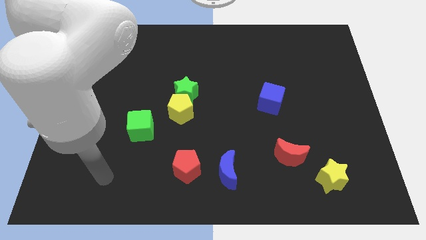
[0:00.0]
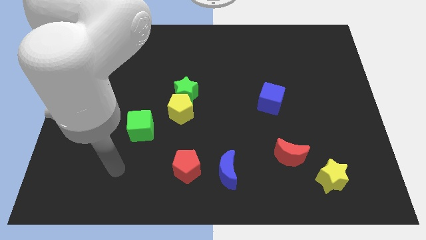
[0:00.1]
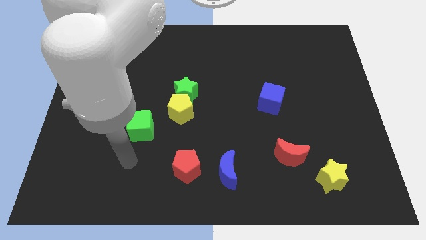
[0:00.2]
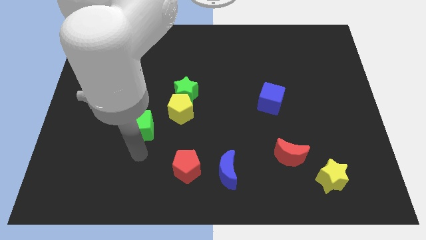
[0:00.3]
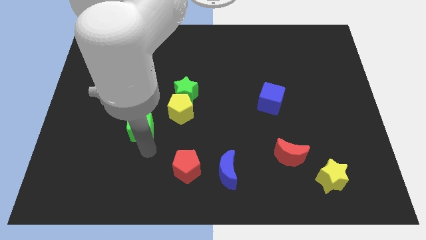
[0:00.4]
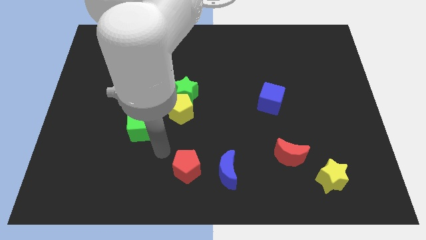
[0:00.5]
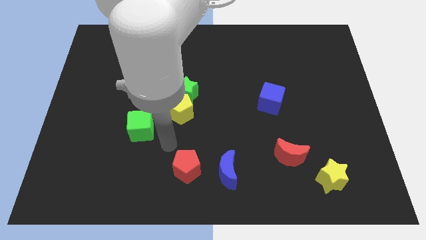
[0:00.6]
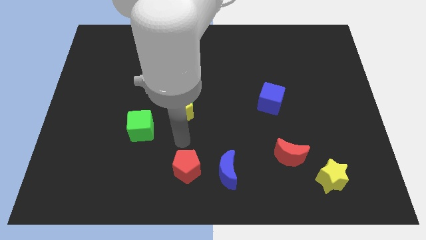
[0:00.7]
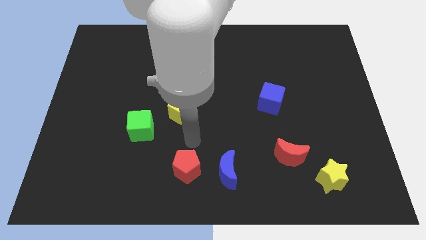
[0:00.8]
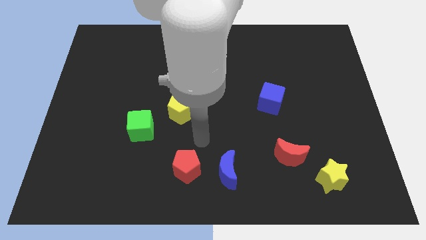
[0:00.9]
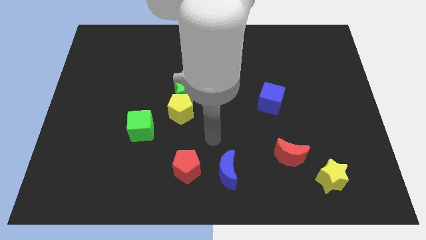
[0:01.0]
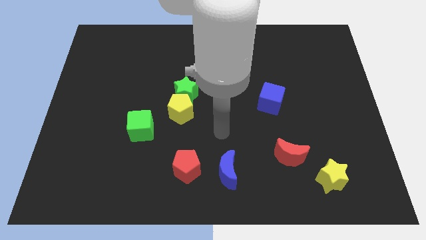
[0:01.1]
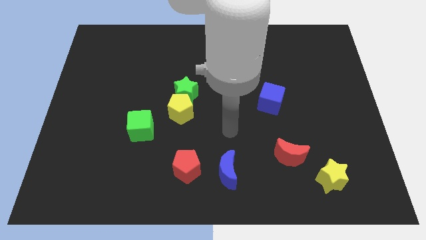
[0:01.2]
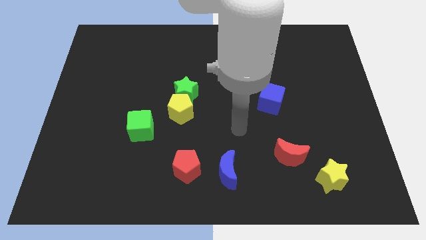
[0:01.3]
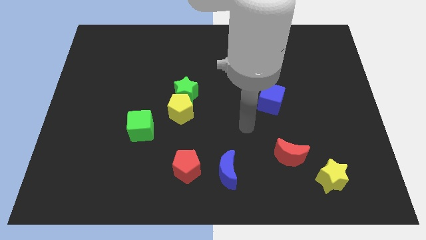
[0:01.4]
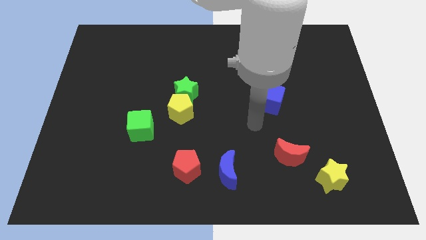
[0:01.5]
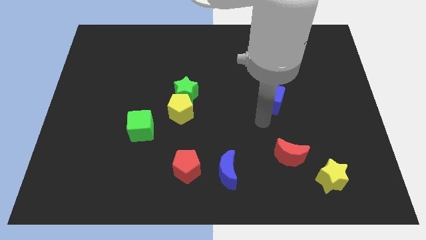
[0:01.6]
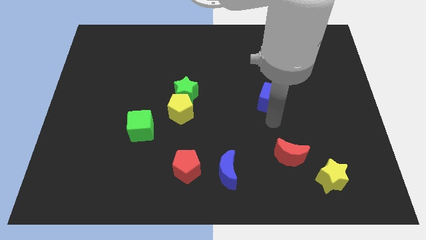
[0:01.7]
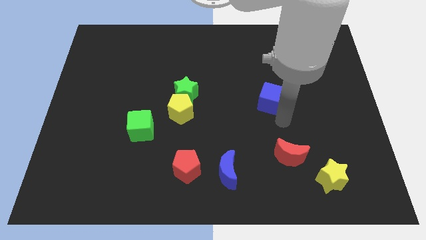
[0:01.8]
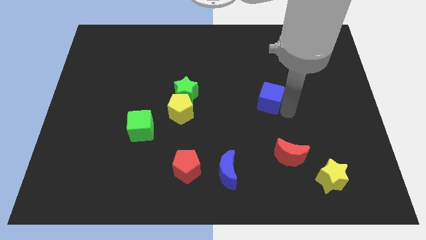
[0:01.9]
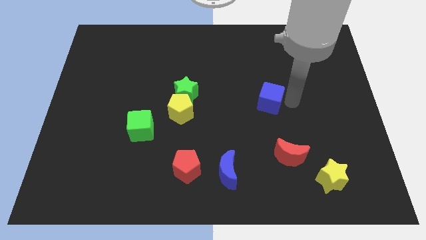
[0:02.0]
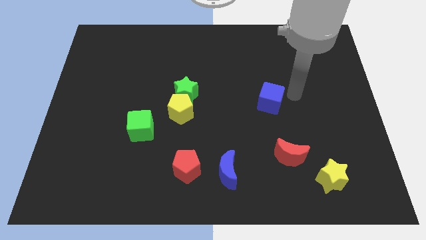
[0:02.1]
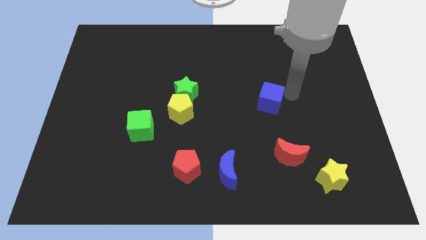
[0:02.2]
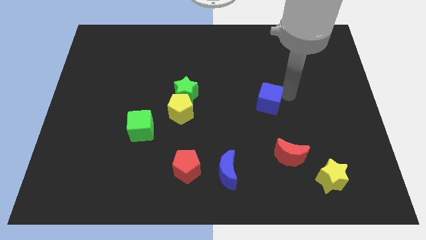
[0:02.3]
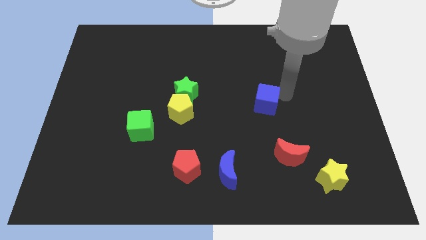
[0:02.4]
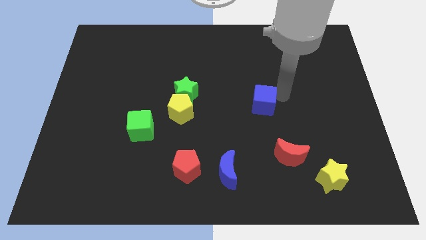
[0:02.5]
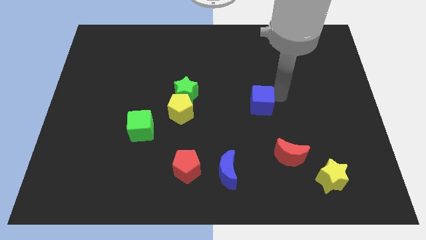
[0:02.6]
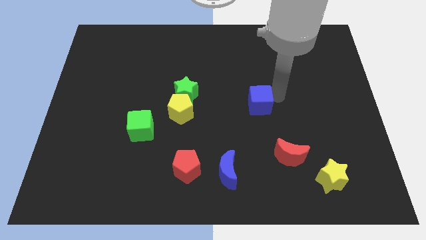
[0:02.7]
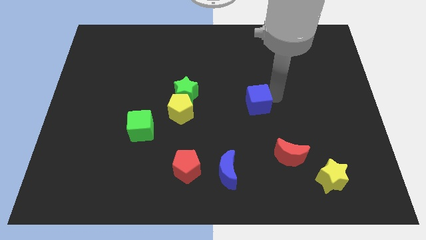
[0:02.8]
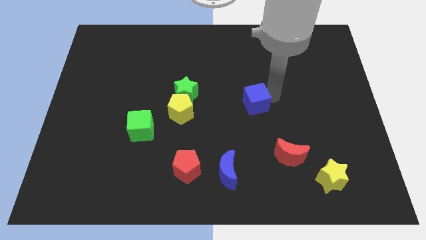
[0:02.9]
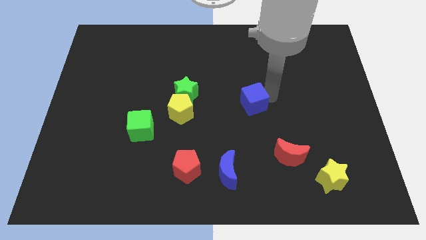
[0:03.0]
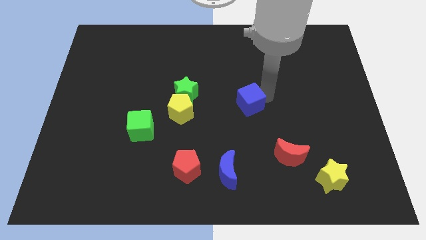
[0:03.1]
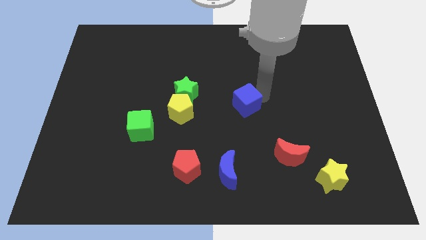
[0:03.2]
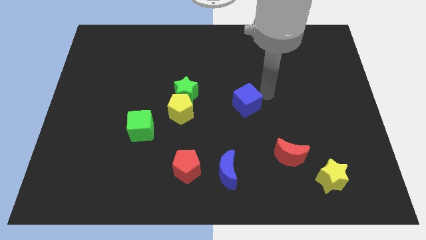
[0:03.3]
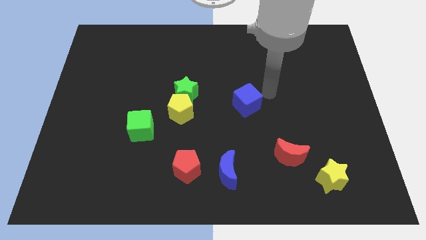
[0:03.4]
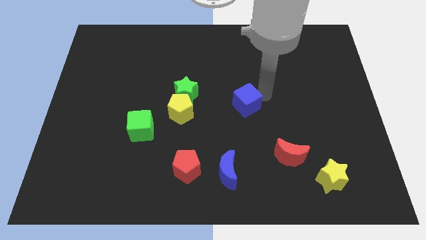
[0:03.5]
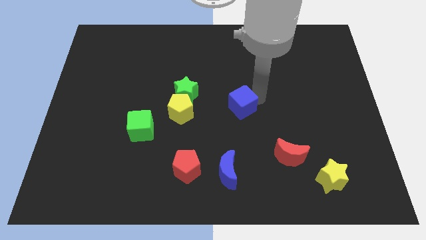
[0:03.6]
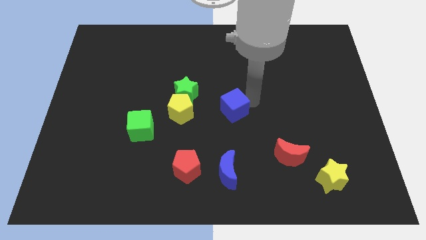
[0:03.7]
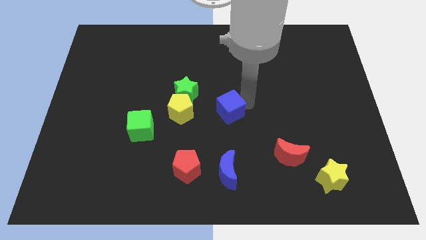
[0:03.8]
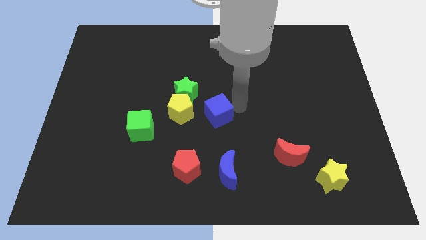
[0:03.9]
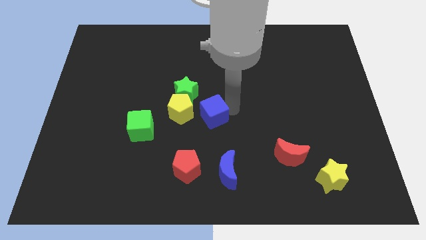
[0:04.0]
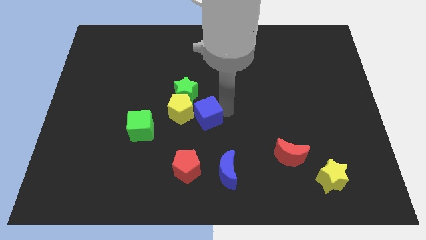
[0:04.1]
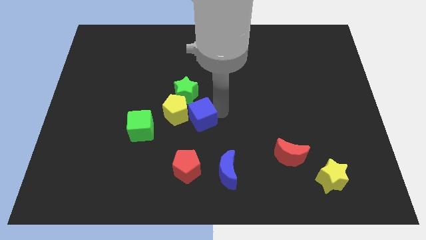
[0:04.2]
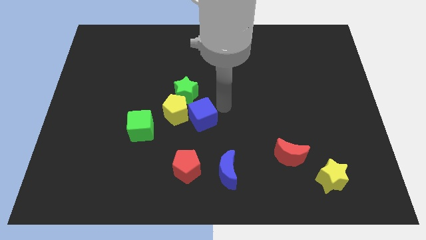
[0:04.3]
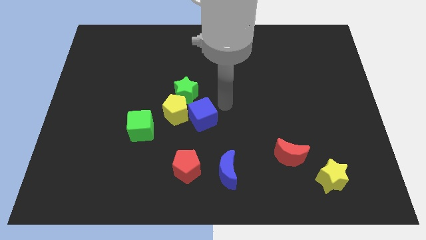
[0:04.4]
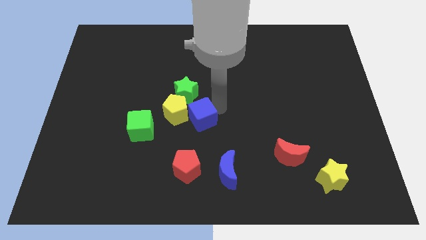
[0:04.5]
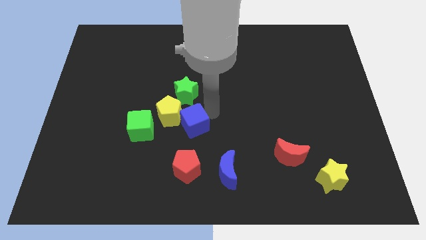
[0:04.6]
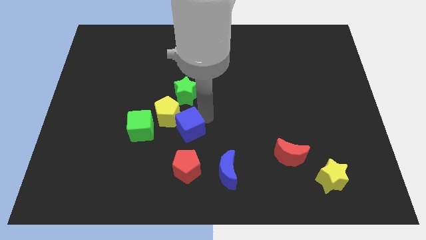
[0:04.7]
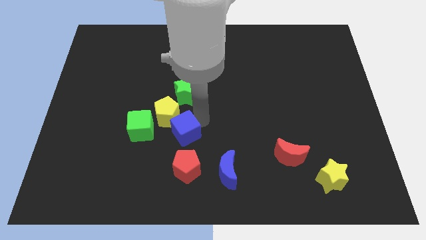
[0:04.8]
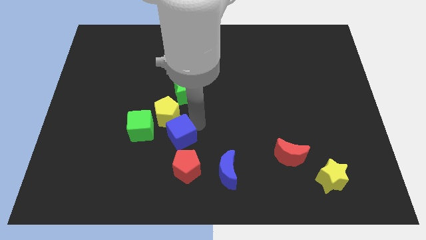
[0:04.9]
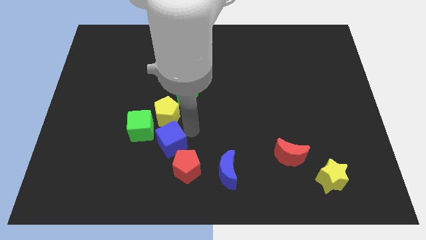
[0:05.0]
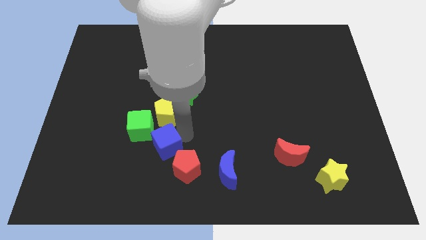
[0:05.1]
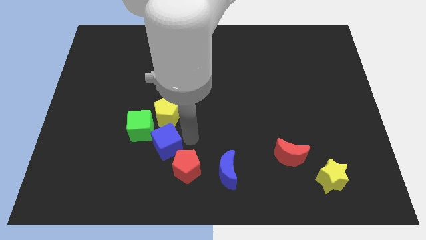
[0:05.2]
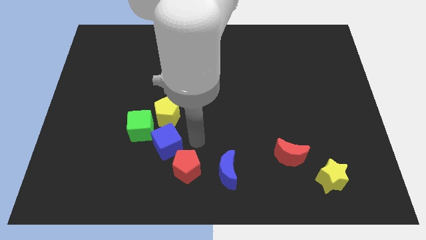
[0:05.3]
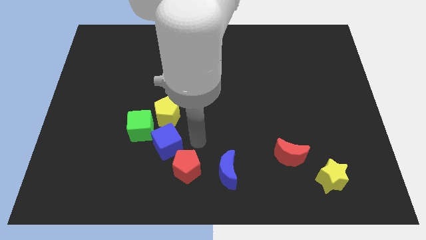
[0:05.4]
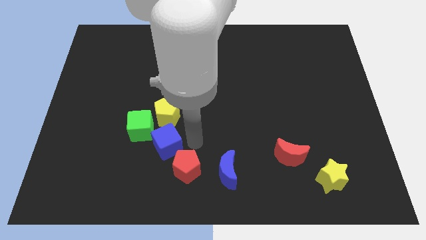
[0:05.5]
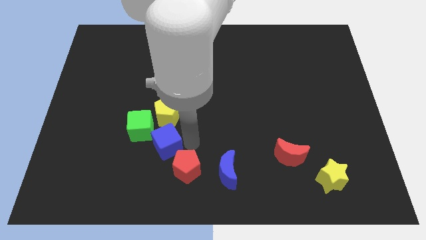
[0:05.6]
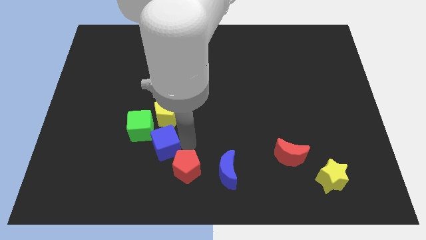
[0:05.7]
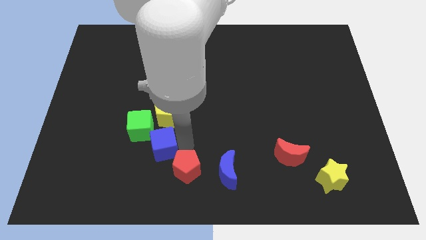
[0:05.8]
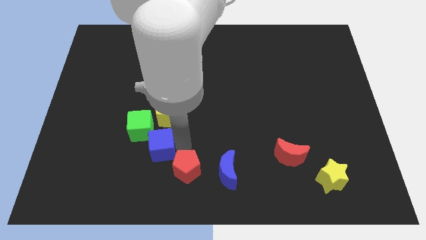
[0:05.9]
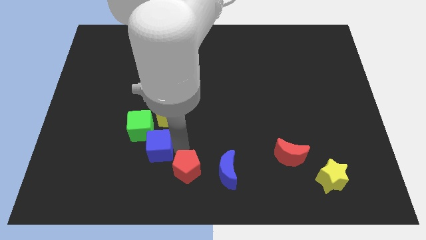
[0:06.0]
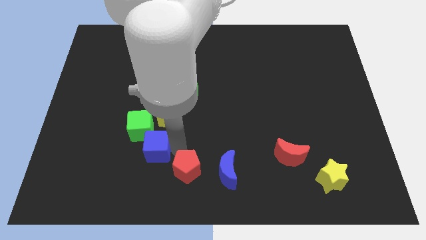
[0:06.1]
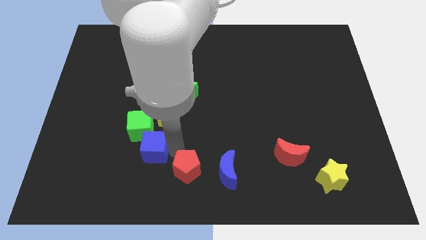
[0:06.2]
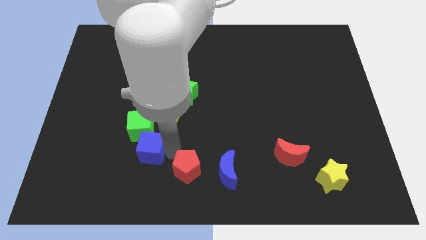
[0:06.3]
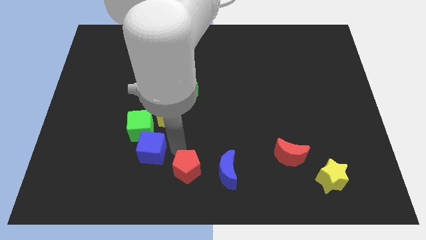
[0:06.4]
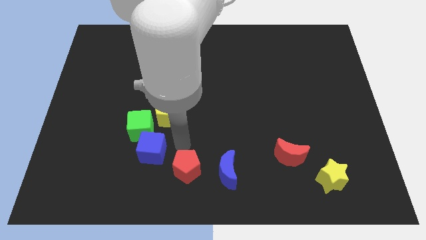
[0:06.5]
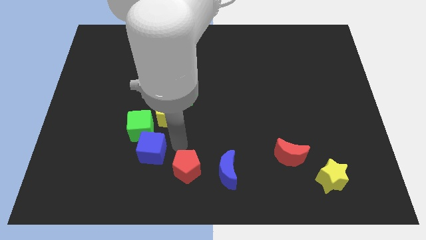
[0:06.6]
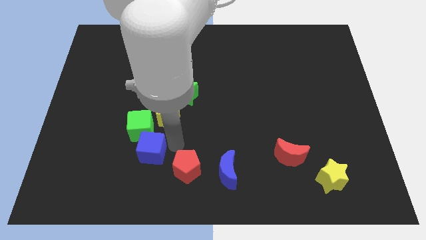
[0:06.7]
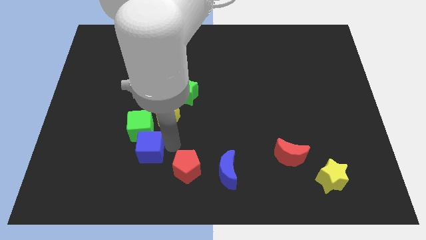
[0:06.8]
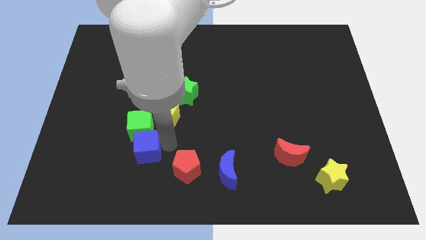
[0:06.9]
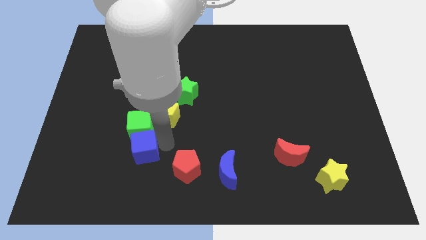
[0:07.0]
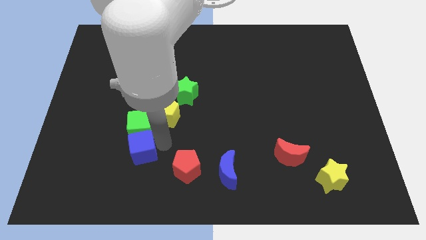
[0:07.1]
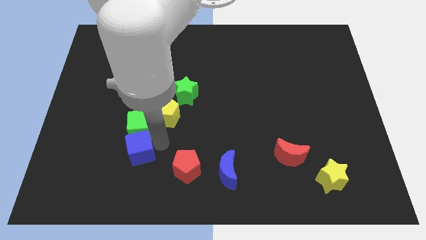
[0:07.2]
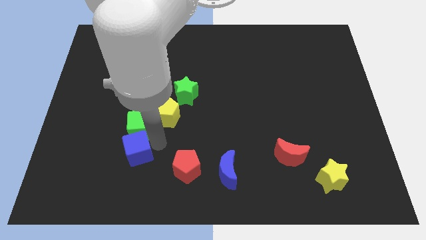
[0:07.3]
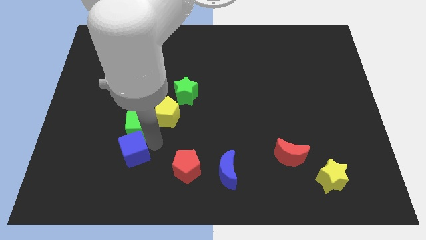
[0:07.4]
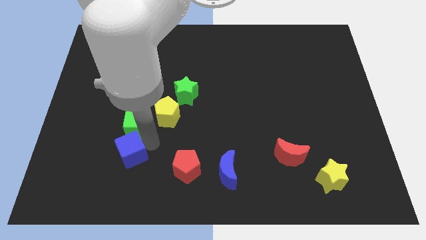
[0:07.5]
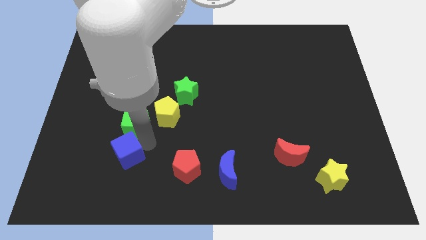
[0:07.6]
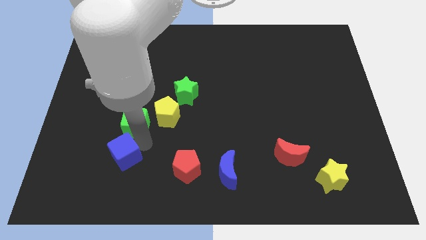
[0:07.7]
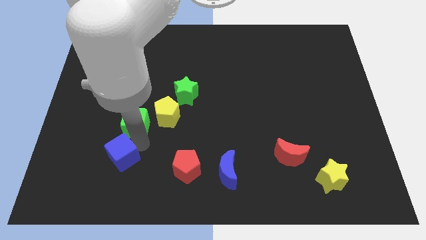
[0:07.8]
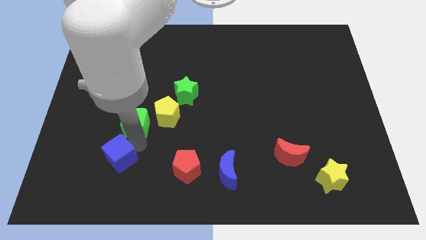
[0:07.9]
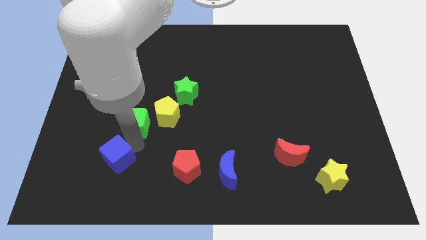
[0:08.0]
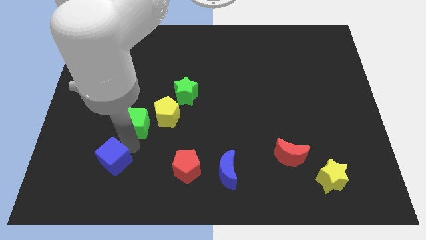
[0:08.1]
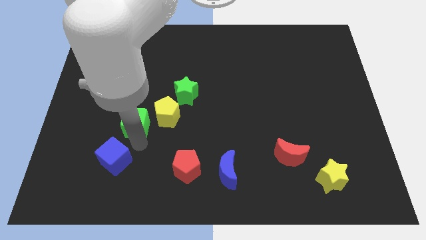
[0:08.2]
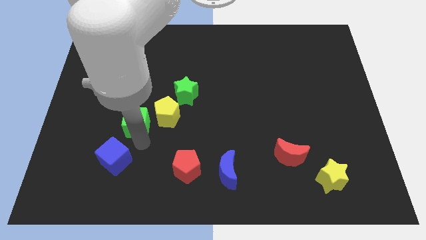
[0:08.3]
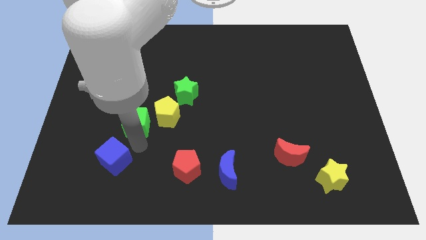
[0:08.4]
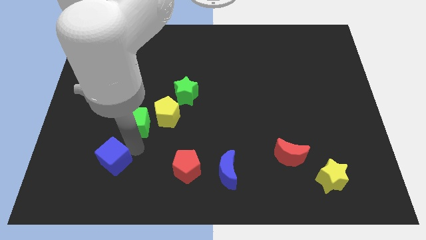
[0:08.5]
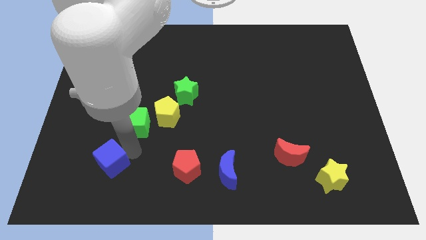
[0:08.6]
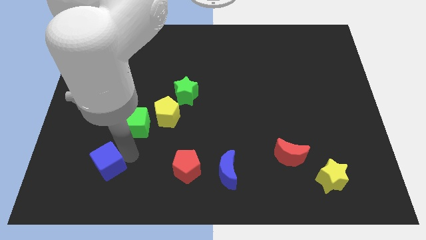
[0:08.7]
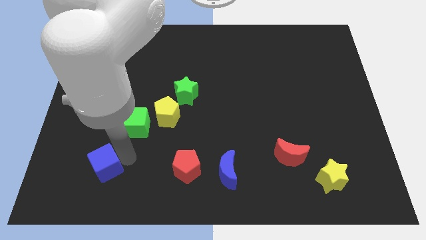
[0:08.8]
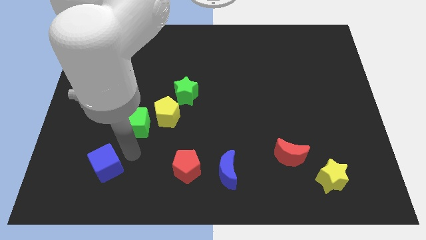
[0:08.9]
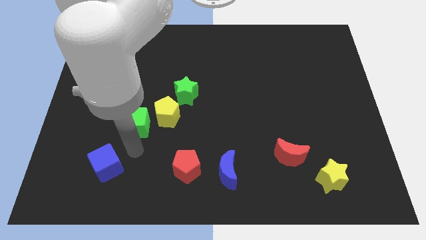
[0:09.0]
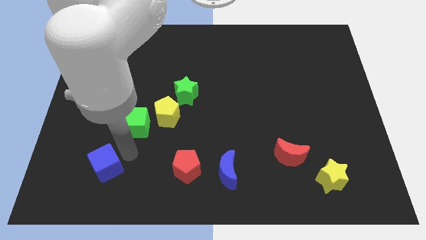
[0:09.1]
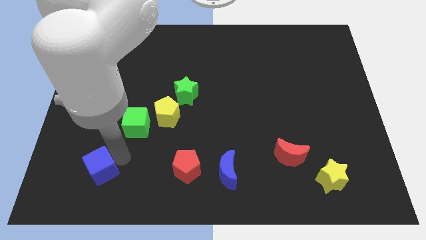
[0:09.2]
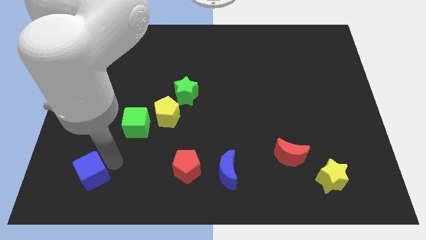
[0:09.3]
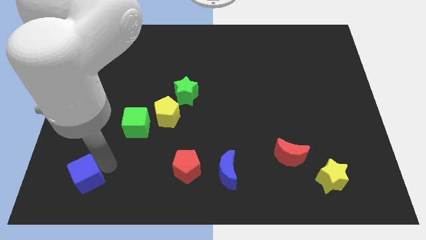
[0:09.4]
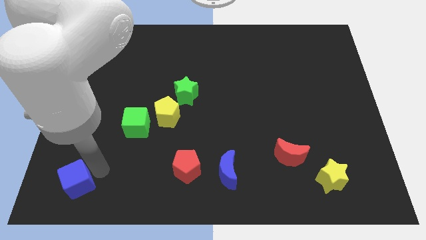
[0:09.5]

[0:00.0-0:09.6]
put the blue cube to the lower left corner
